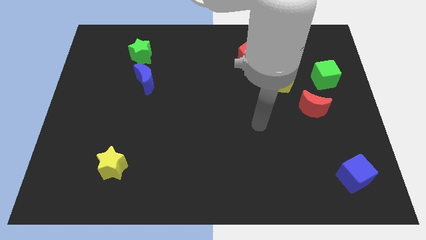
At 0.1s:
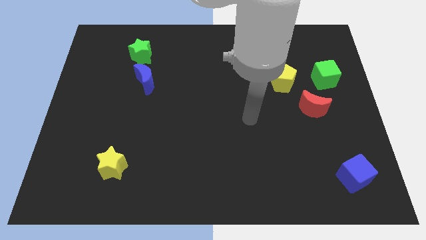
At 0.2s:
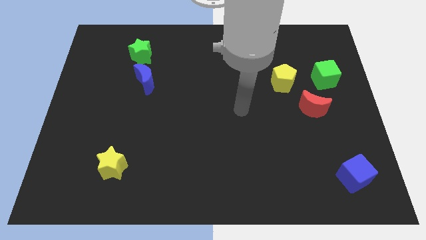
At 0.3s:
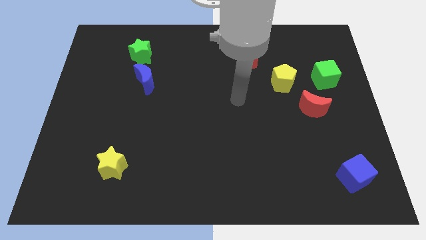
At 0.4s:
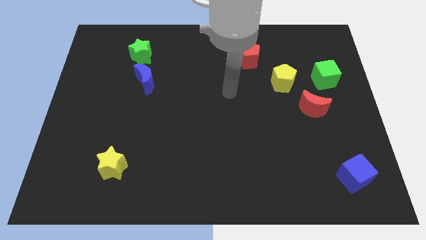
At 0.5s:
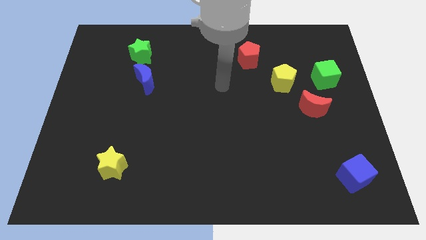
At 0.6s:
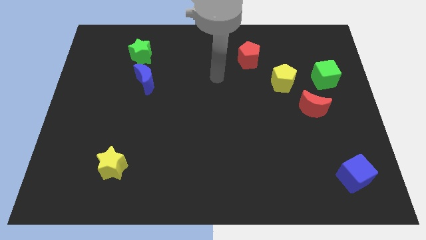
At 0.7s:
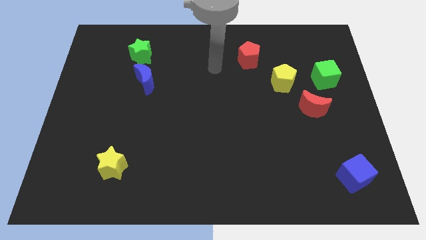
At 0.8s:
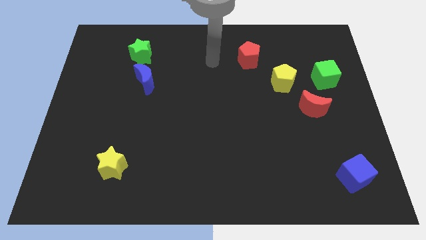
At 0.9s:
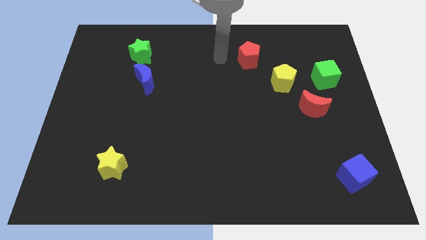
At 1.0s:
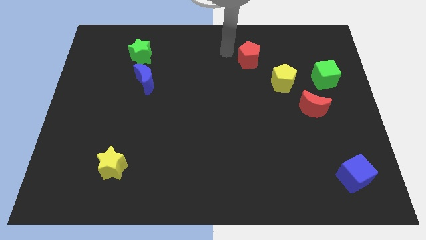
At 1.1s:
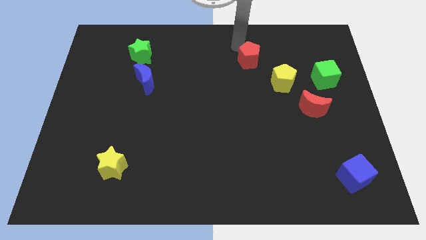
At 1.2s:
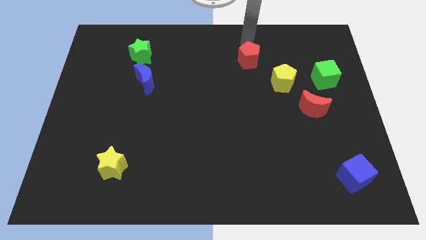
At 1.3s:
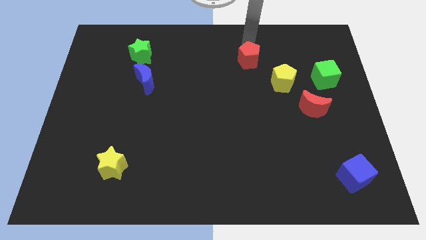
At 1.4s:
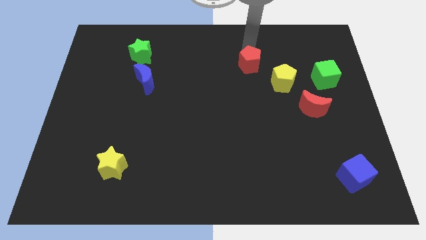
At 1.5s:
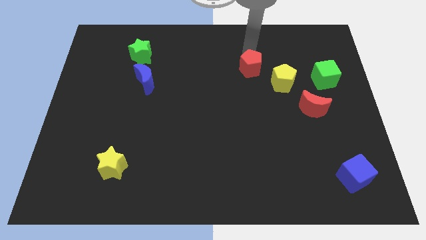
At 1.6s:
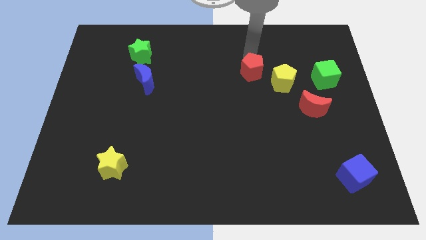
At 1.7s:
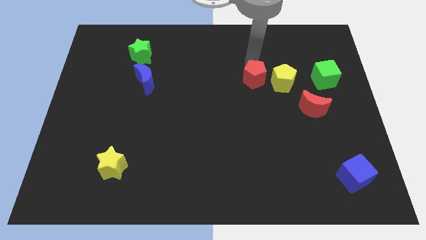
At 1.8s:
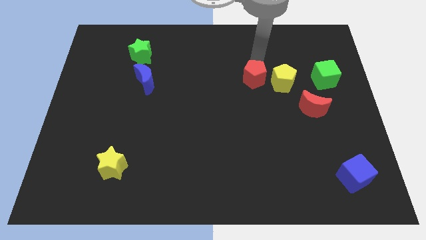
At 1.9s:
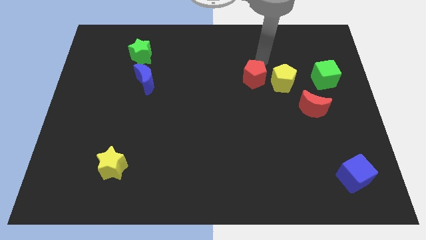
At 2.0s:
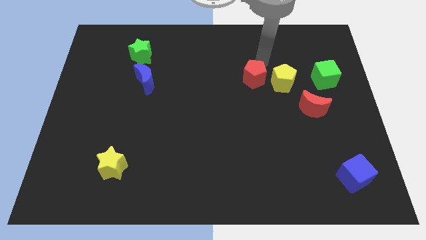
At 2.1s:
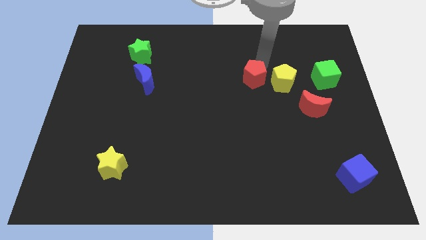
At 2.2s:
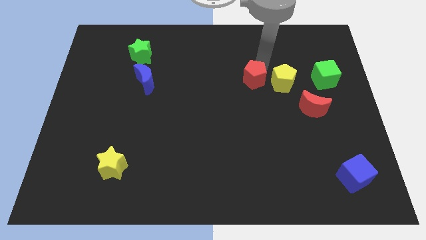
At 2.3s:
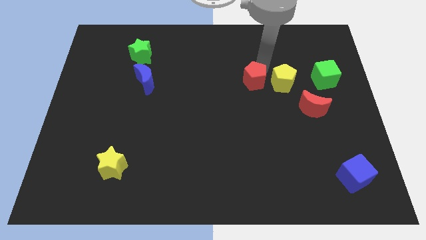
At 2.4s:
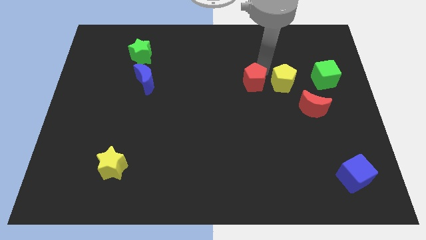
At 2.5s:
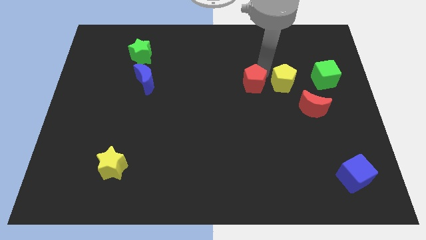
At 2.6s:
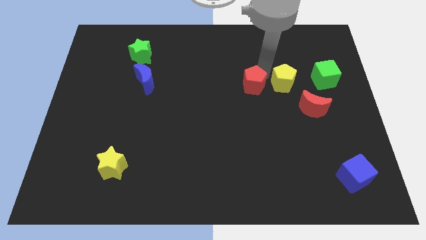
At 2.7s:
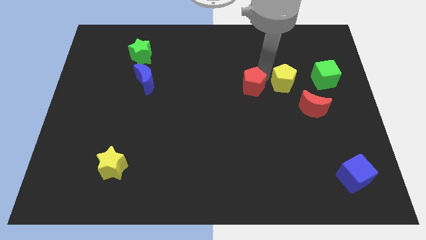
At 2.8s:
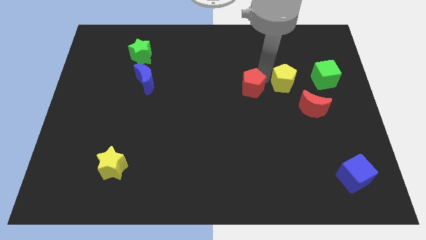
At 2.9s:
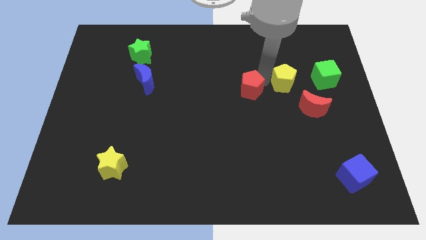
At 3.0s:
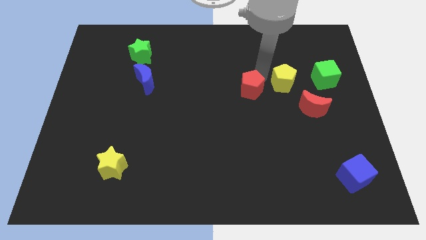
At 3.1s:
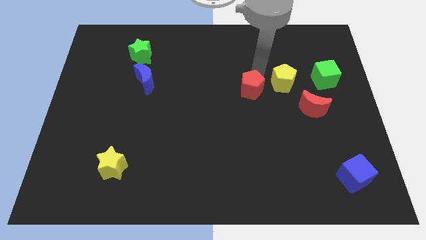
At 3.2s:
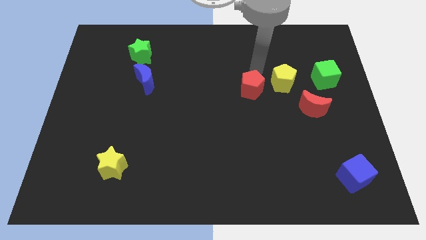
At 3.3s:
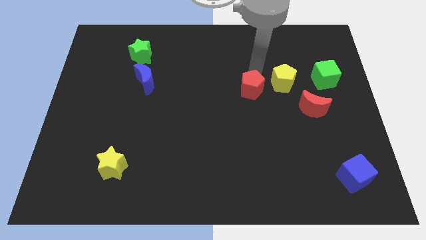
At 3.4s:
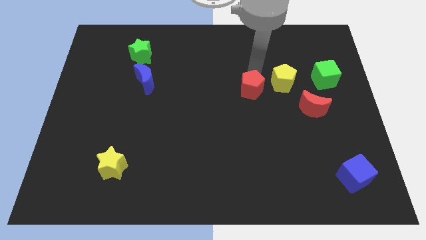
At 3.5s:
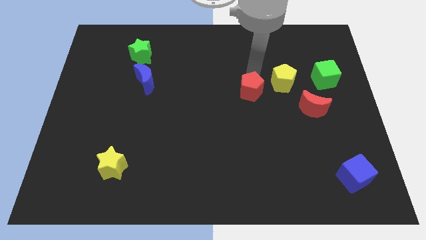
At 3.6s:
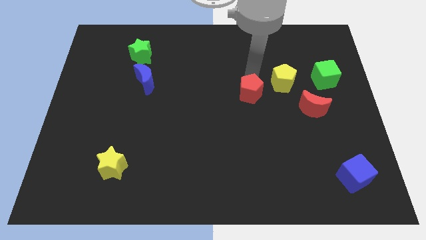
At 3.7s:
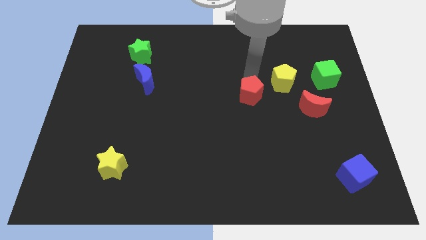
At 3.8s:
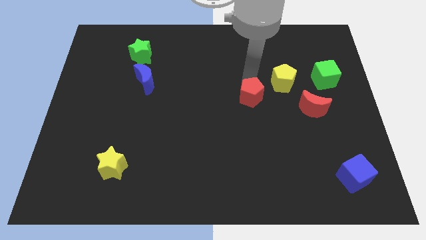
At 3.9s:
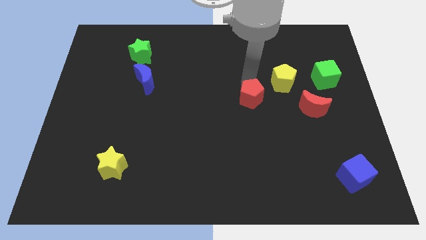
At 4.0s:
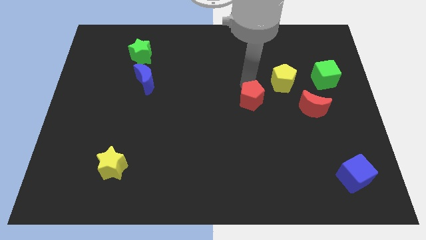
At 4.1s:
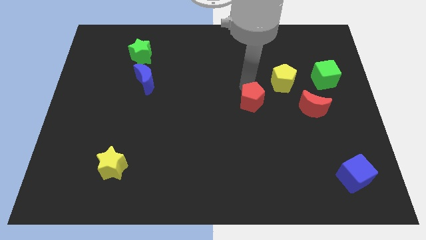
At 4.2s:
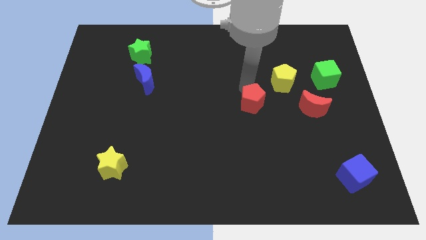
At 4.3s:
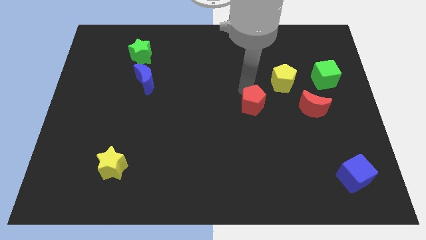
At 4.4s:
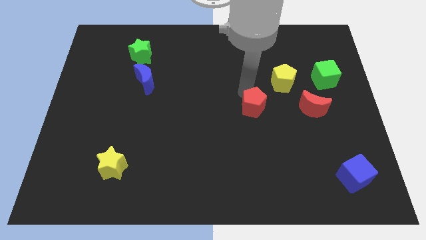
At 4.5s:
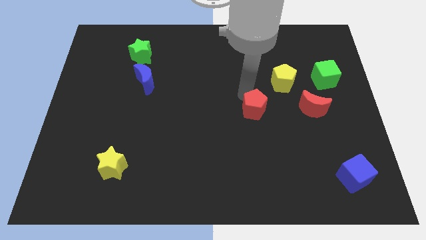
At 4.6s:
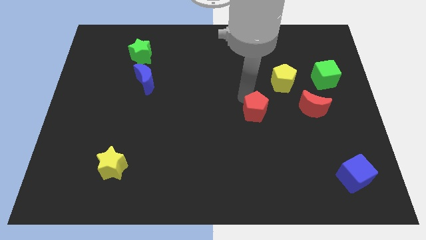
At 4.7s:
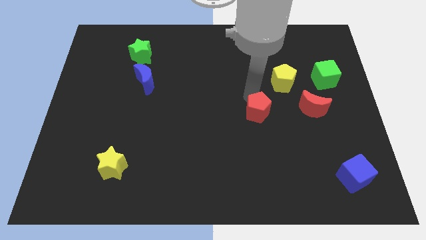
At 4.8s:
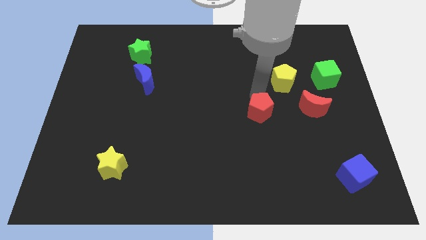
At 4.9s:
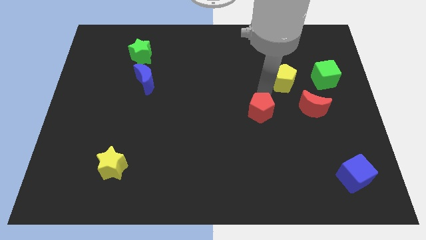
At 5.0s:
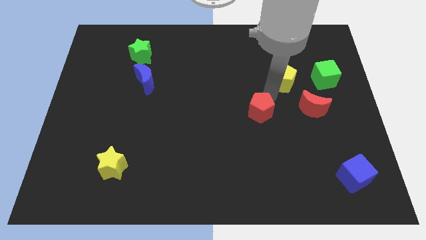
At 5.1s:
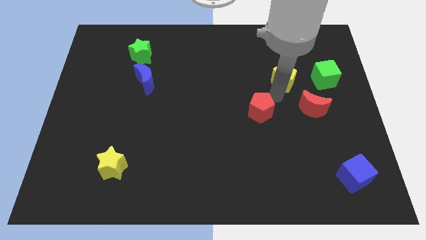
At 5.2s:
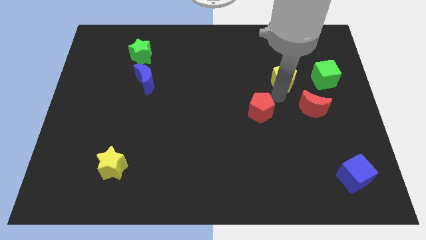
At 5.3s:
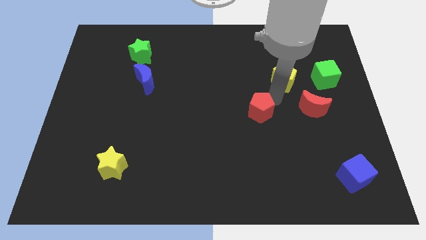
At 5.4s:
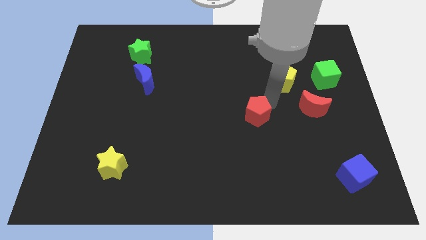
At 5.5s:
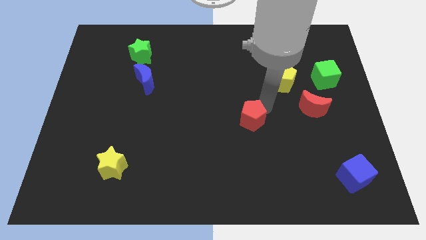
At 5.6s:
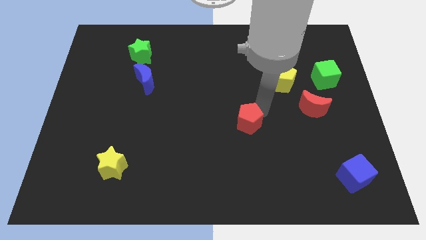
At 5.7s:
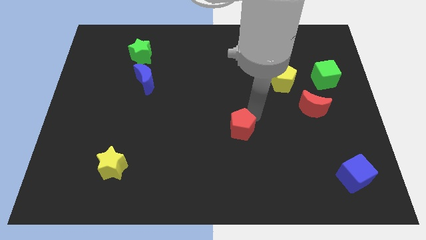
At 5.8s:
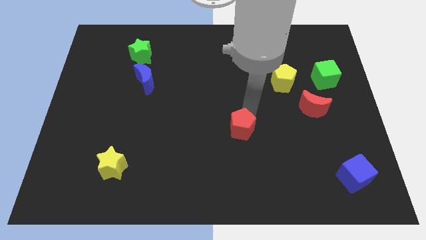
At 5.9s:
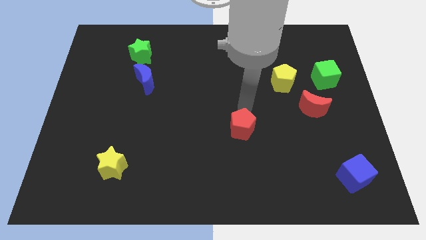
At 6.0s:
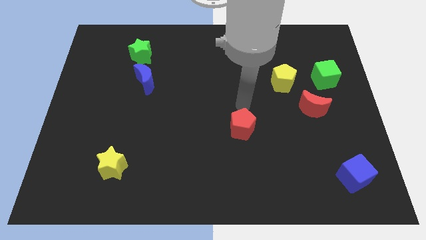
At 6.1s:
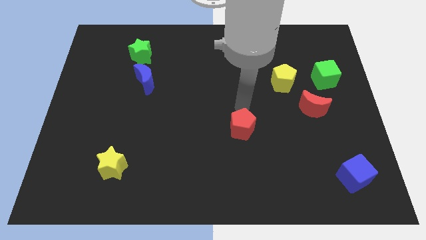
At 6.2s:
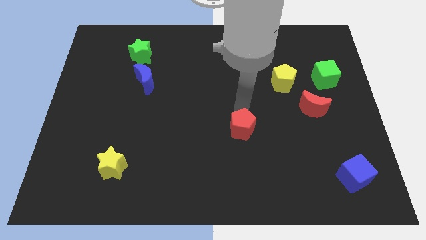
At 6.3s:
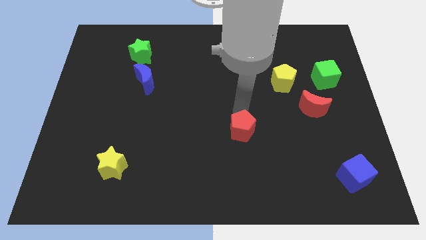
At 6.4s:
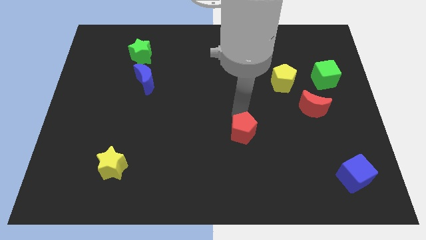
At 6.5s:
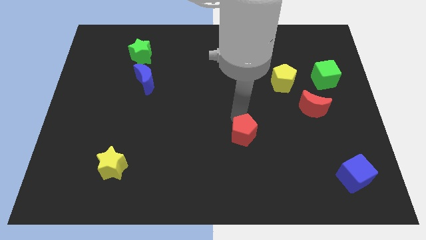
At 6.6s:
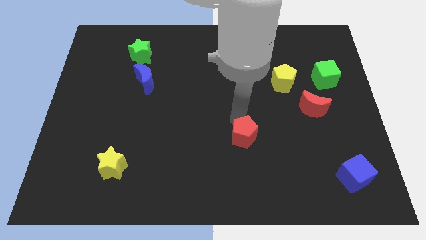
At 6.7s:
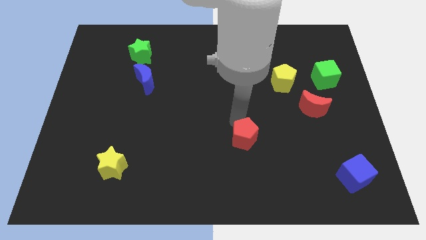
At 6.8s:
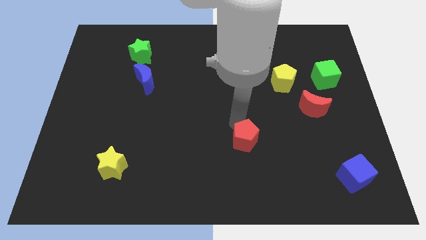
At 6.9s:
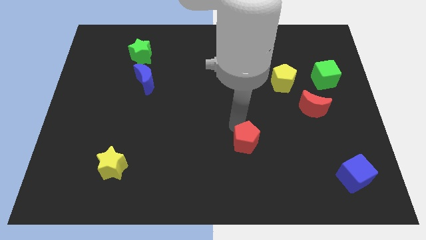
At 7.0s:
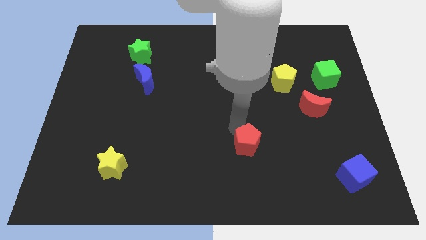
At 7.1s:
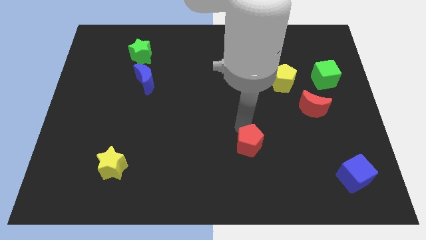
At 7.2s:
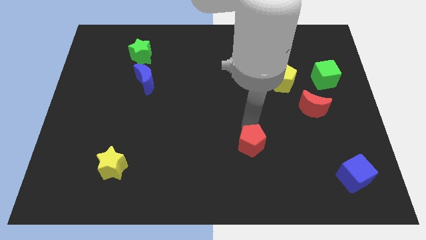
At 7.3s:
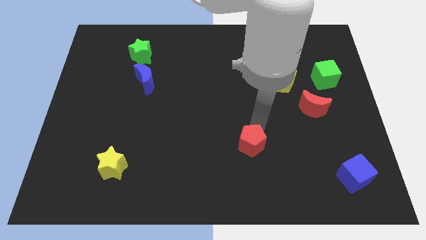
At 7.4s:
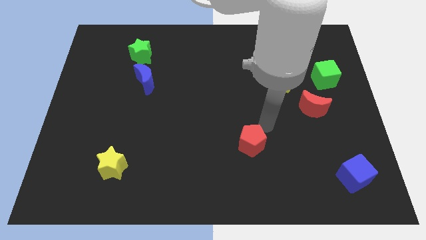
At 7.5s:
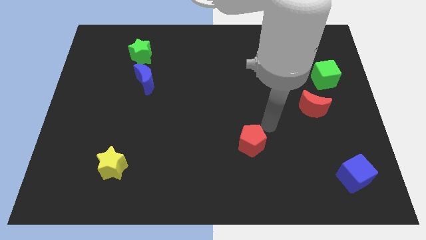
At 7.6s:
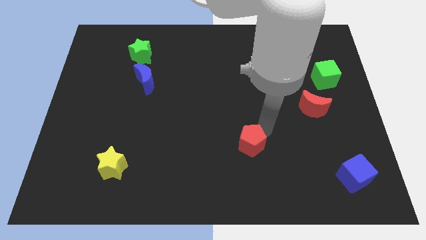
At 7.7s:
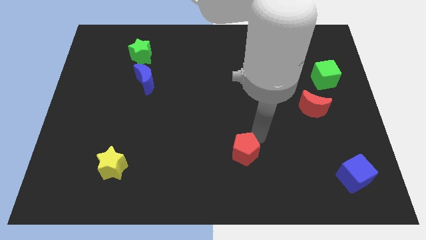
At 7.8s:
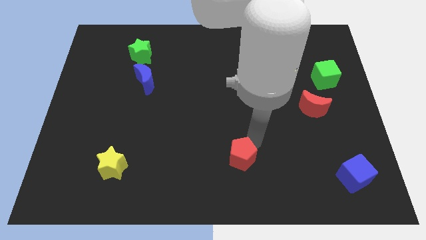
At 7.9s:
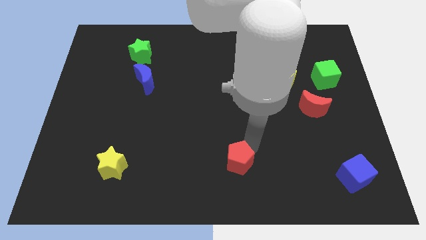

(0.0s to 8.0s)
put the red pentagon to the bottom side
